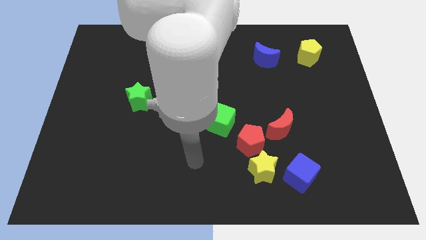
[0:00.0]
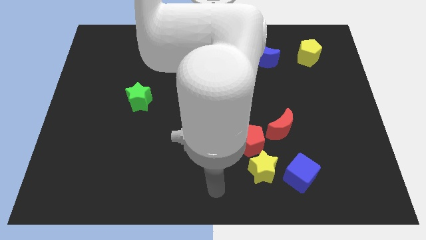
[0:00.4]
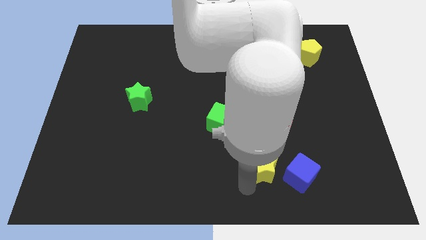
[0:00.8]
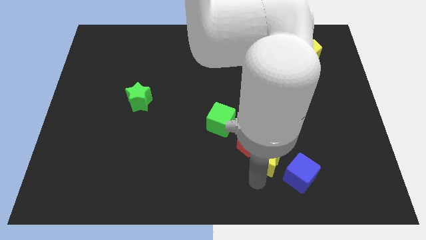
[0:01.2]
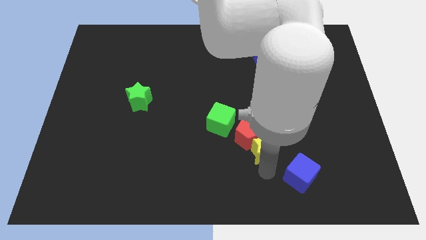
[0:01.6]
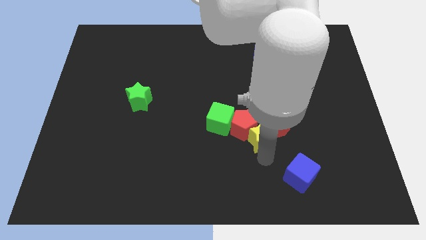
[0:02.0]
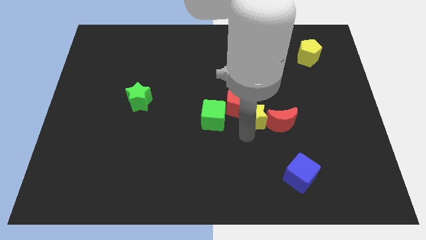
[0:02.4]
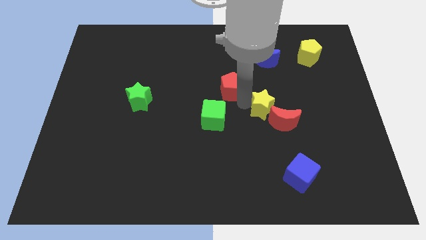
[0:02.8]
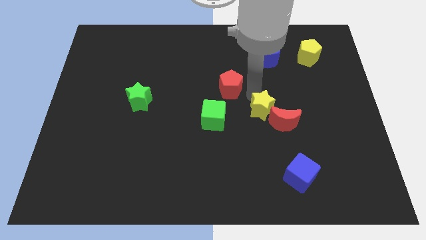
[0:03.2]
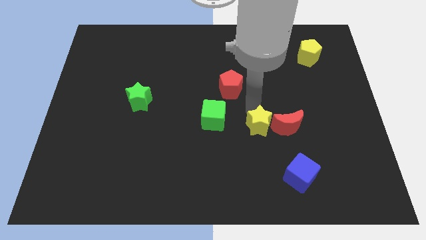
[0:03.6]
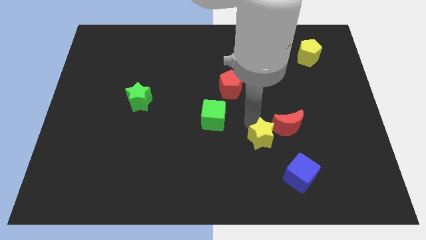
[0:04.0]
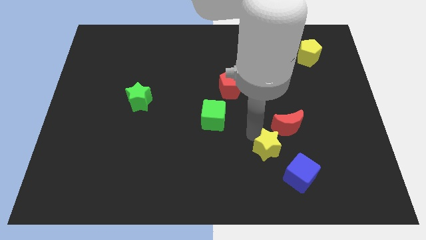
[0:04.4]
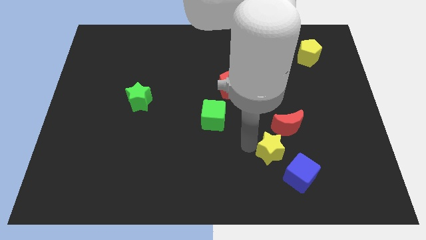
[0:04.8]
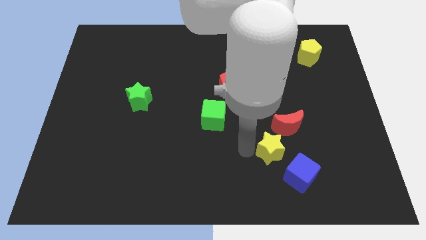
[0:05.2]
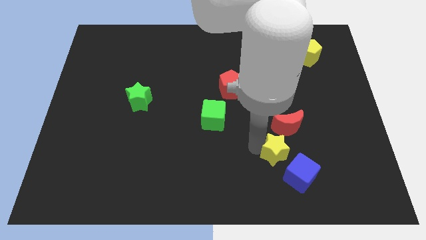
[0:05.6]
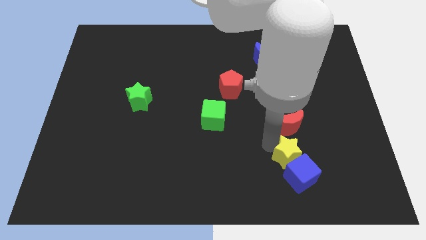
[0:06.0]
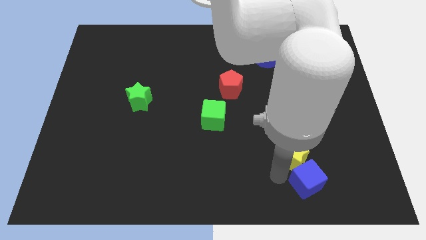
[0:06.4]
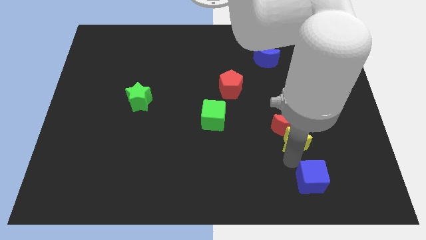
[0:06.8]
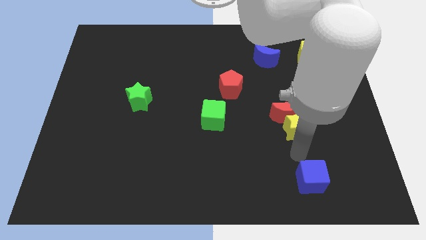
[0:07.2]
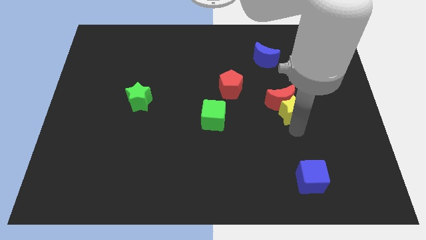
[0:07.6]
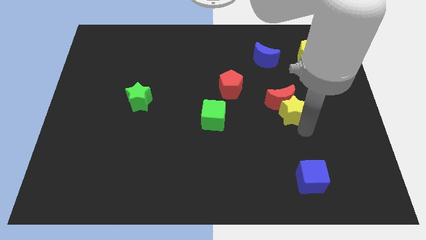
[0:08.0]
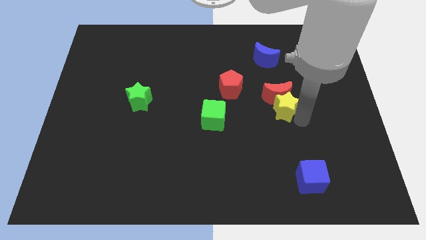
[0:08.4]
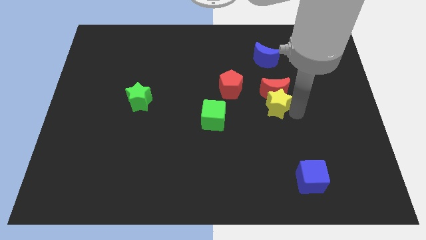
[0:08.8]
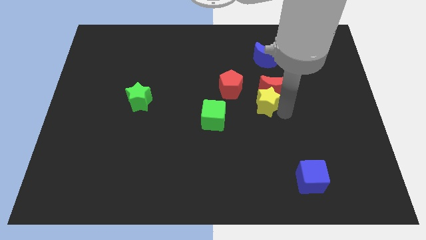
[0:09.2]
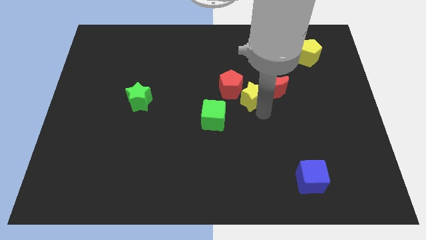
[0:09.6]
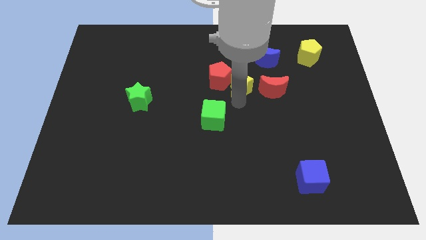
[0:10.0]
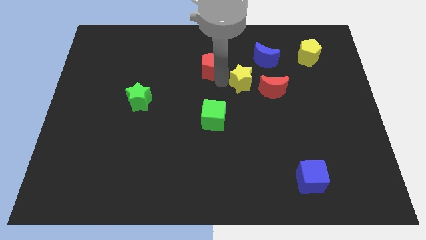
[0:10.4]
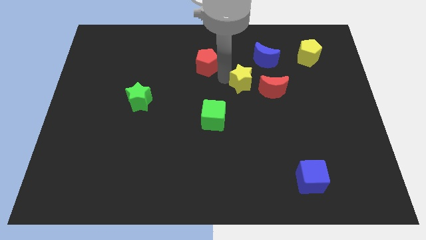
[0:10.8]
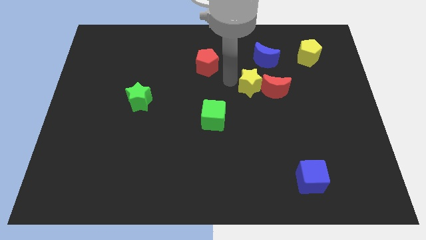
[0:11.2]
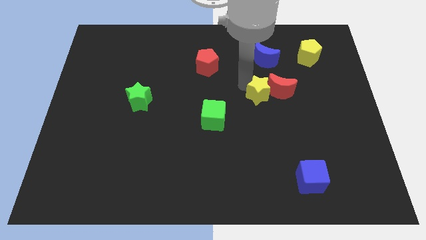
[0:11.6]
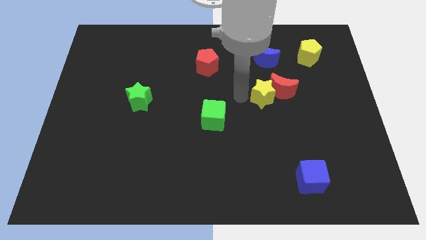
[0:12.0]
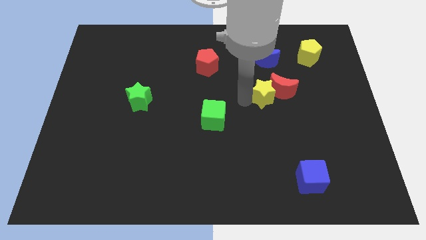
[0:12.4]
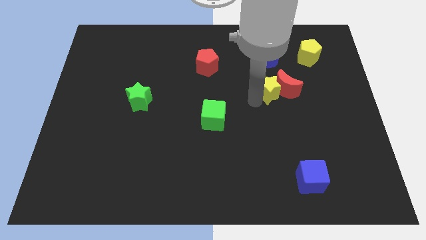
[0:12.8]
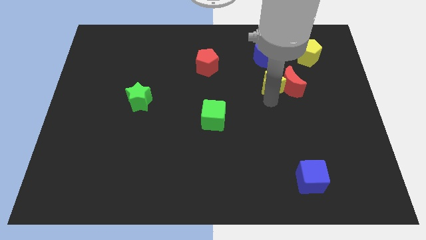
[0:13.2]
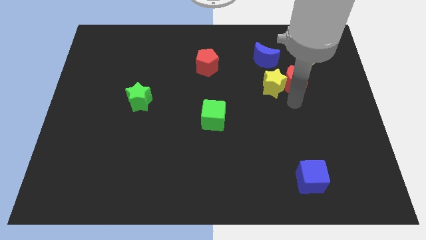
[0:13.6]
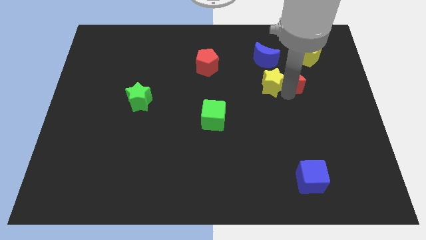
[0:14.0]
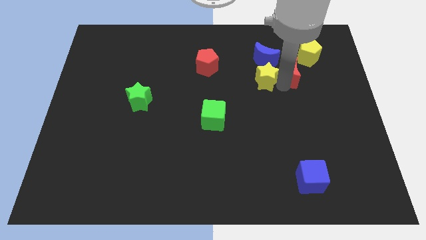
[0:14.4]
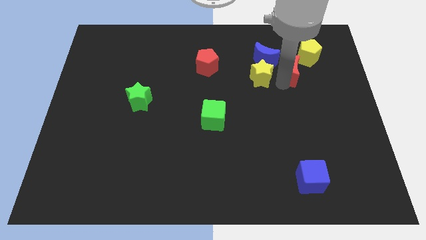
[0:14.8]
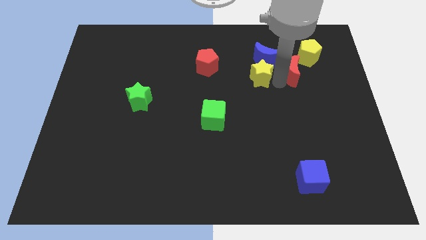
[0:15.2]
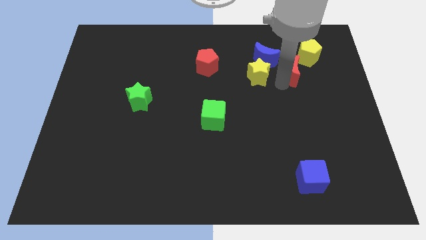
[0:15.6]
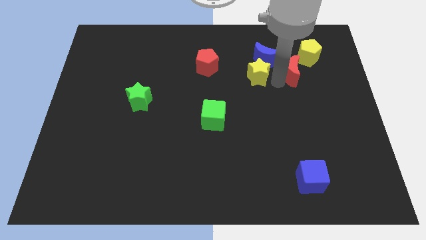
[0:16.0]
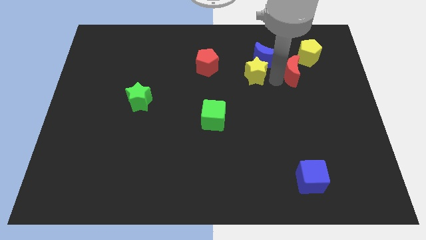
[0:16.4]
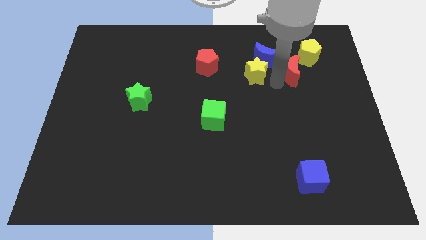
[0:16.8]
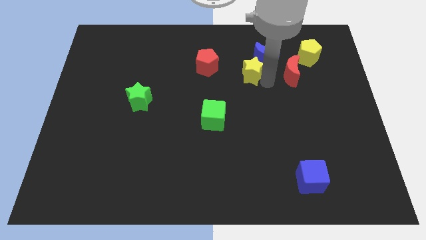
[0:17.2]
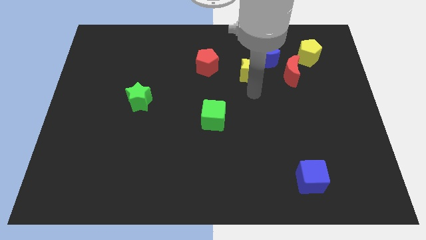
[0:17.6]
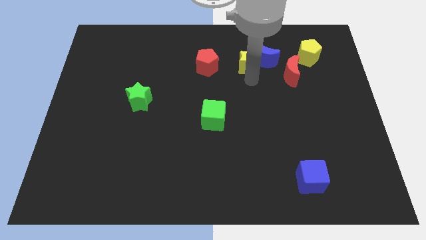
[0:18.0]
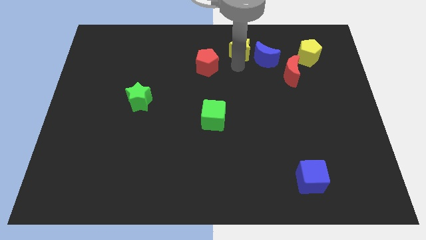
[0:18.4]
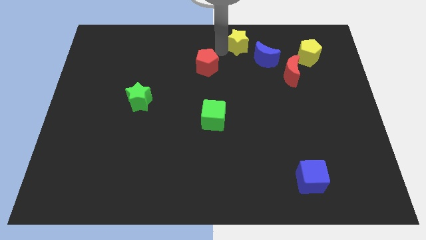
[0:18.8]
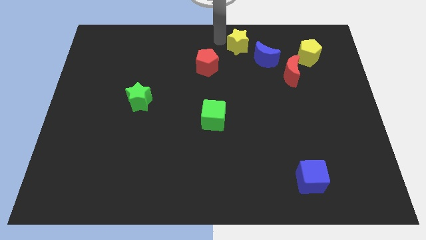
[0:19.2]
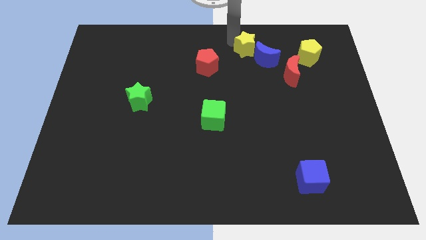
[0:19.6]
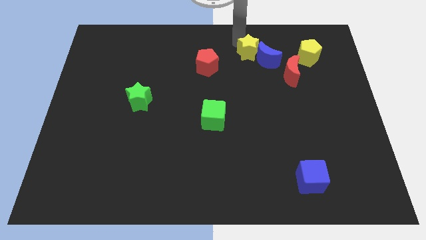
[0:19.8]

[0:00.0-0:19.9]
slide the yellow star just left of the yellow pentagon

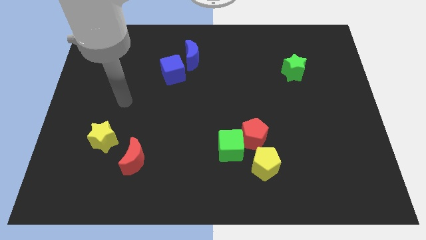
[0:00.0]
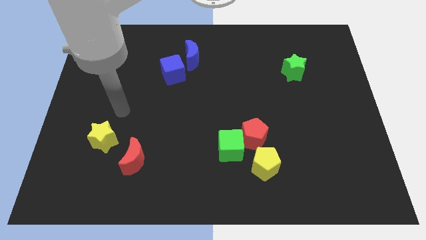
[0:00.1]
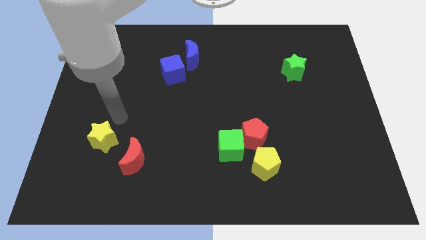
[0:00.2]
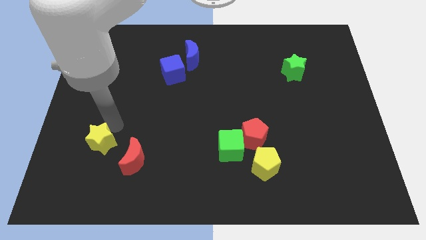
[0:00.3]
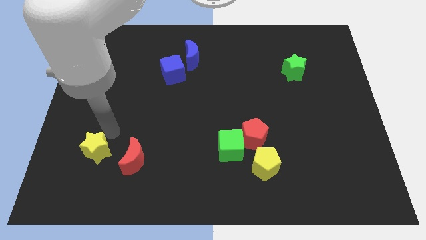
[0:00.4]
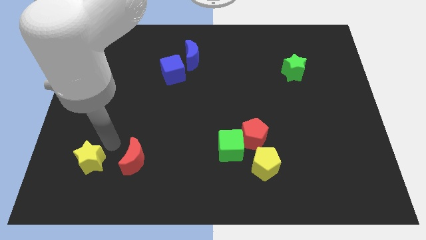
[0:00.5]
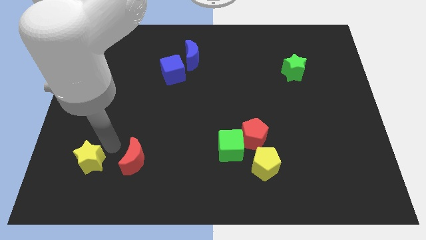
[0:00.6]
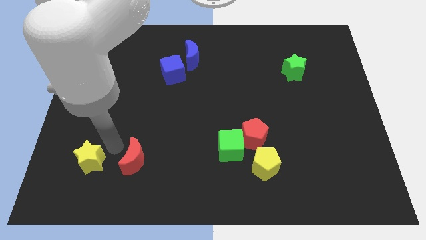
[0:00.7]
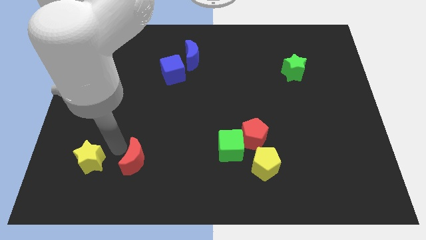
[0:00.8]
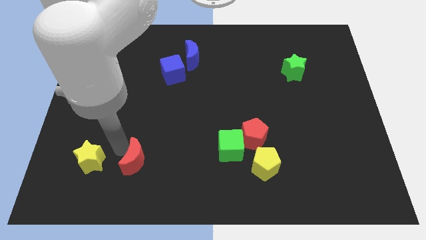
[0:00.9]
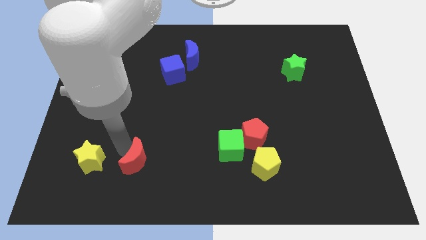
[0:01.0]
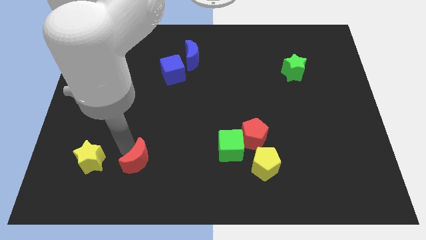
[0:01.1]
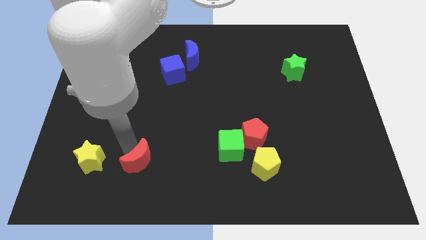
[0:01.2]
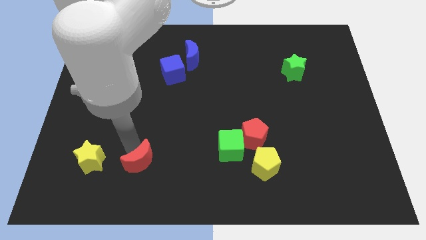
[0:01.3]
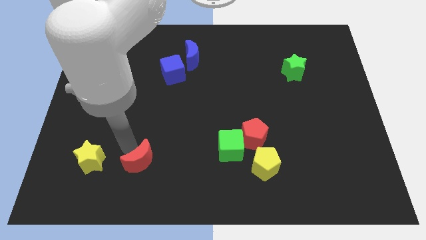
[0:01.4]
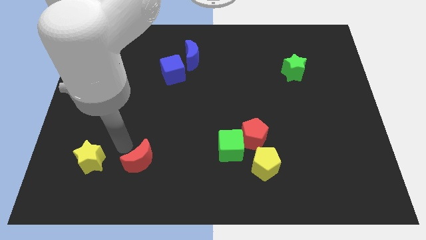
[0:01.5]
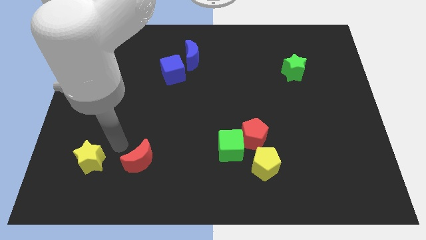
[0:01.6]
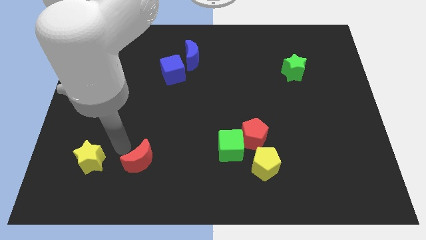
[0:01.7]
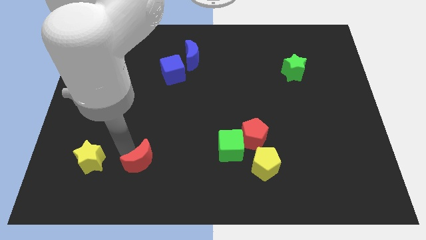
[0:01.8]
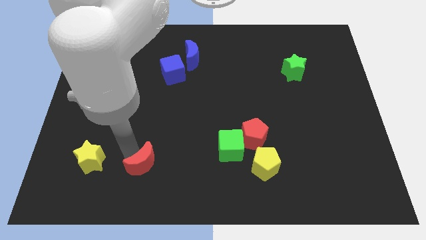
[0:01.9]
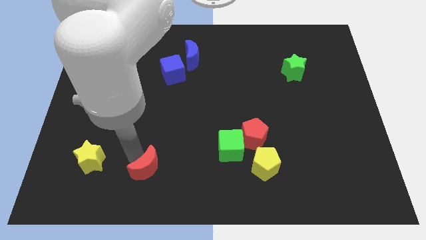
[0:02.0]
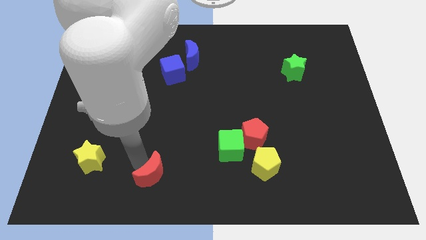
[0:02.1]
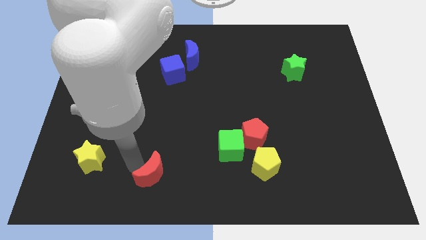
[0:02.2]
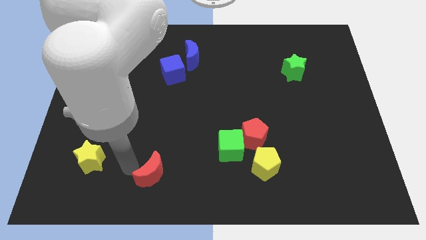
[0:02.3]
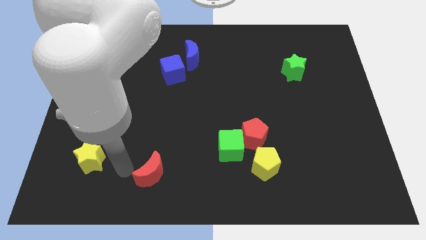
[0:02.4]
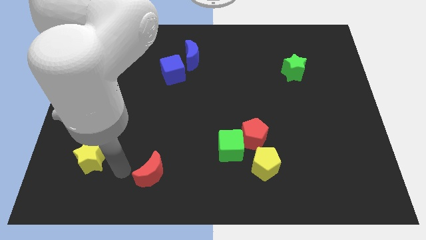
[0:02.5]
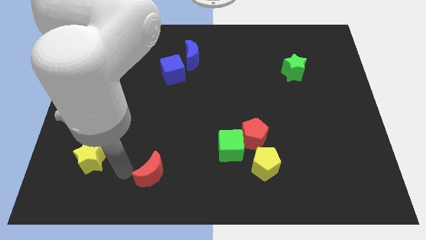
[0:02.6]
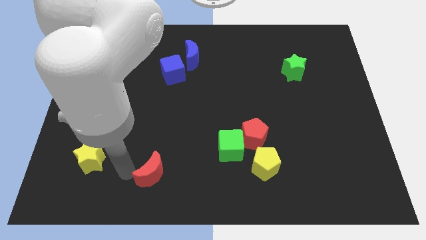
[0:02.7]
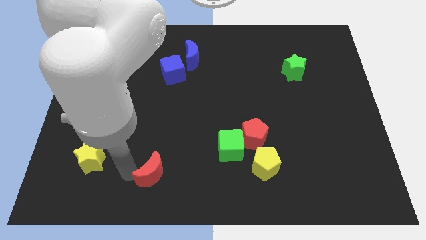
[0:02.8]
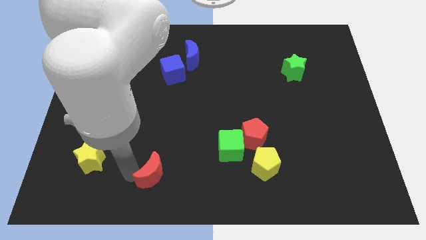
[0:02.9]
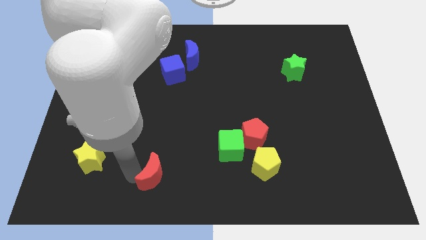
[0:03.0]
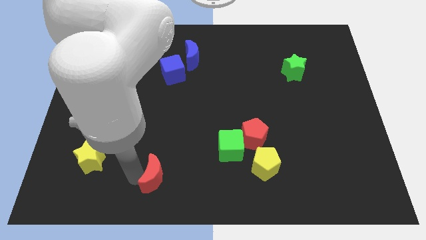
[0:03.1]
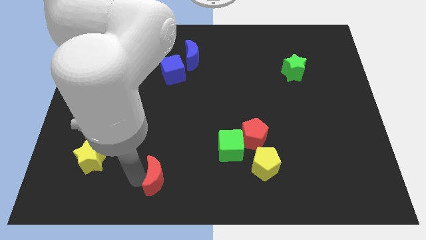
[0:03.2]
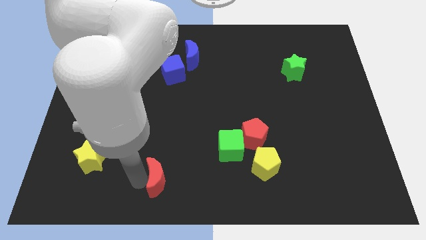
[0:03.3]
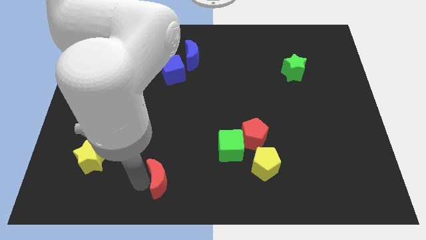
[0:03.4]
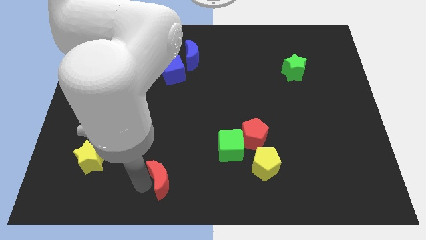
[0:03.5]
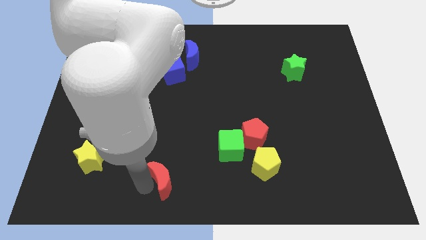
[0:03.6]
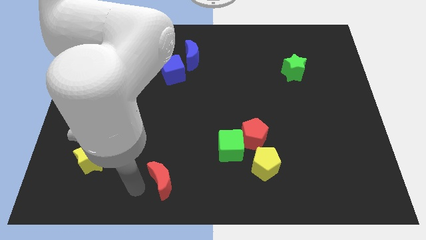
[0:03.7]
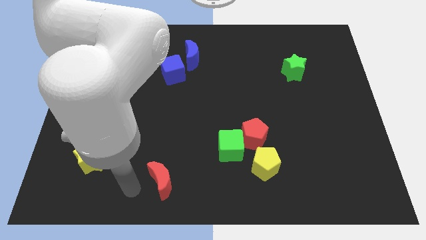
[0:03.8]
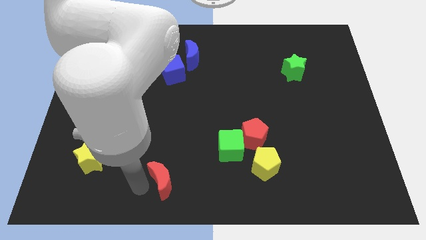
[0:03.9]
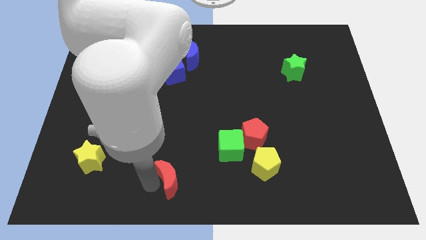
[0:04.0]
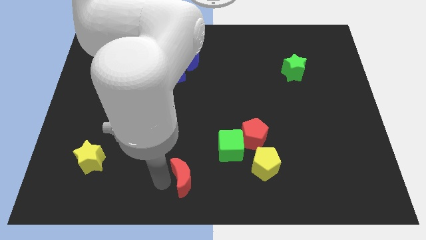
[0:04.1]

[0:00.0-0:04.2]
push the red moon diagonally down and to the left of the green cube
